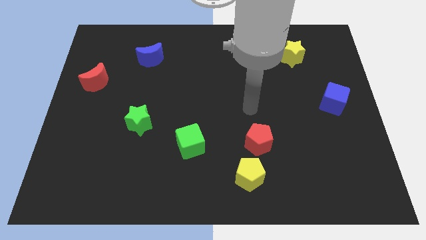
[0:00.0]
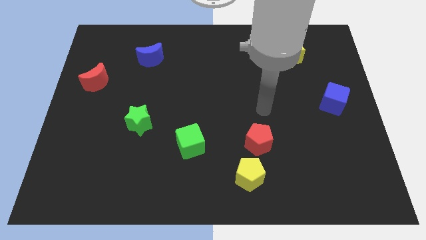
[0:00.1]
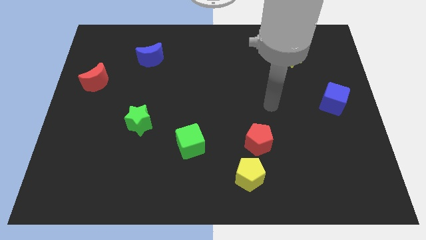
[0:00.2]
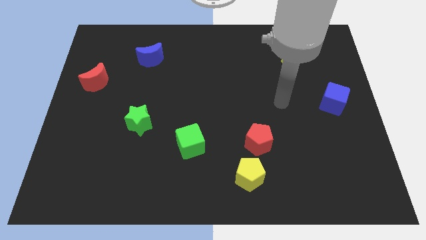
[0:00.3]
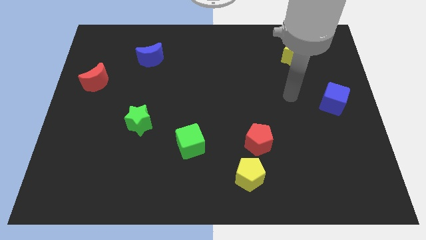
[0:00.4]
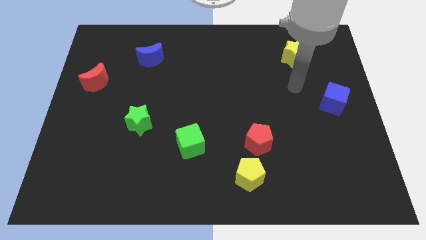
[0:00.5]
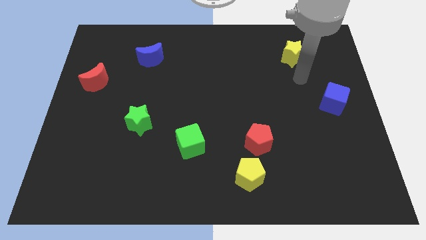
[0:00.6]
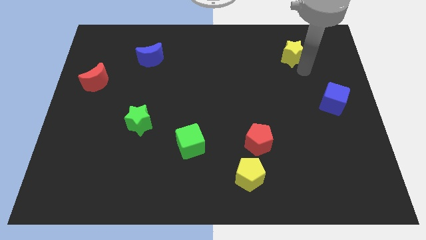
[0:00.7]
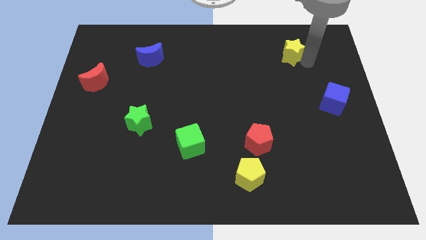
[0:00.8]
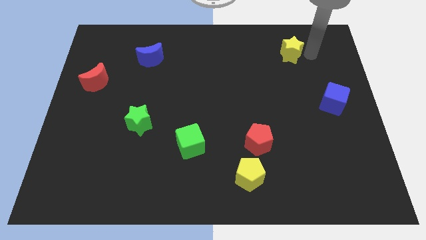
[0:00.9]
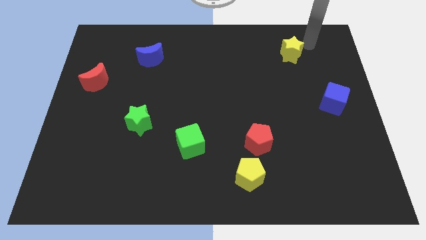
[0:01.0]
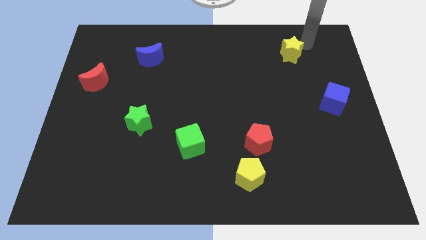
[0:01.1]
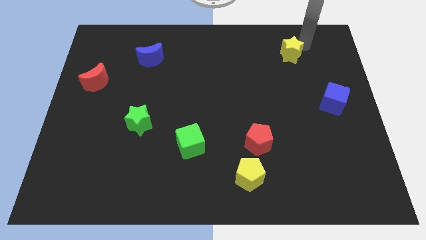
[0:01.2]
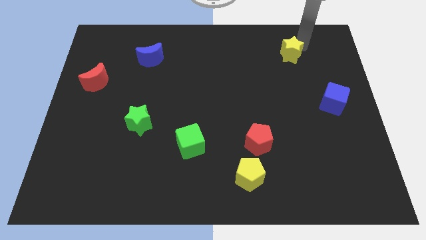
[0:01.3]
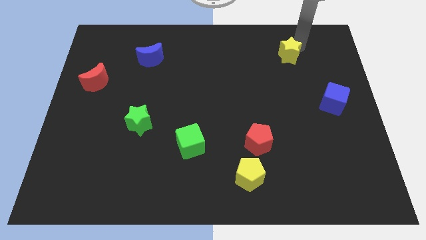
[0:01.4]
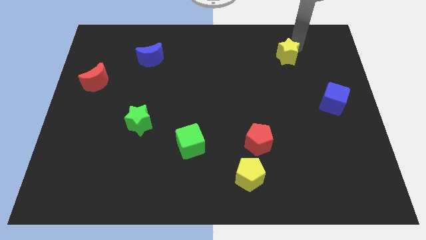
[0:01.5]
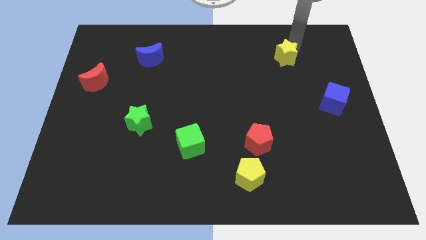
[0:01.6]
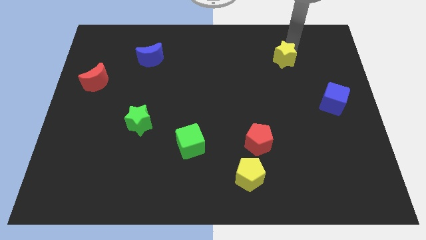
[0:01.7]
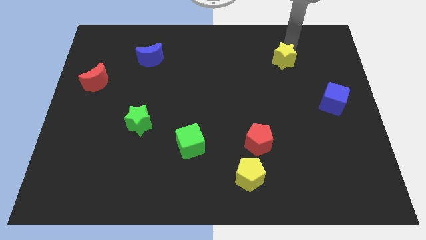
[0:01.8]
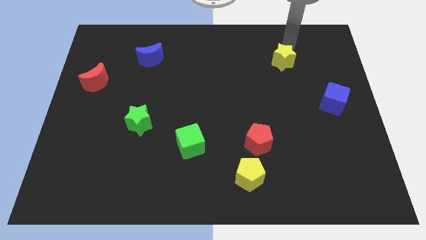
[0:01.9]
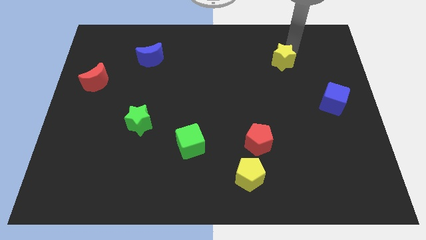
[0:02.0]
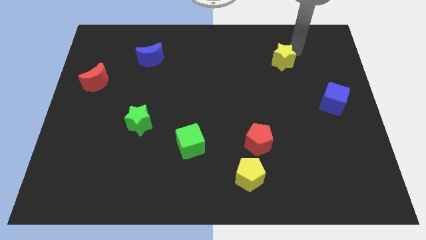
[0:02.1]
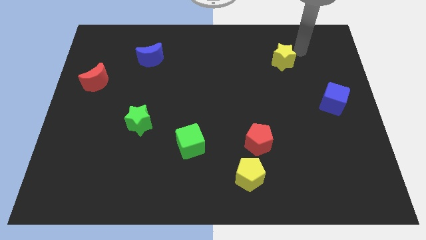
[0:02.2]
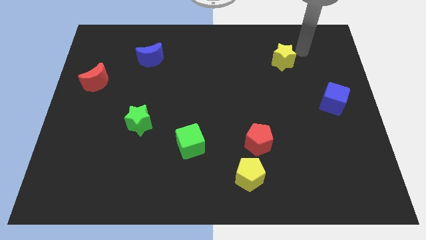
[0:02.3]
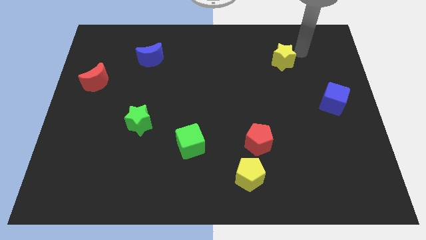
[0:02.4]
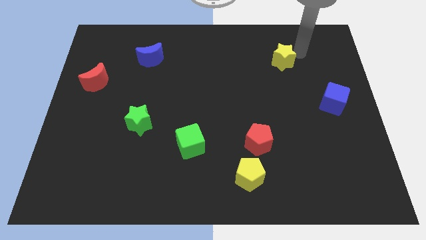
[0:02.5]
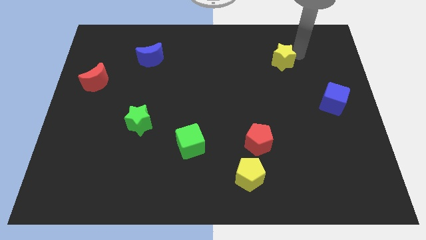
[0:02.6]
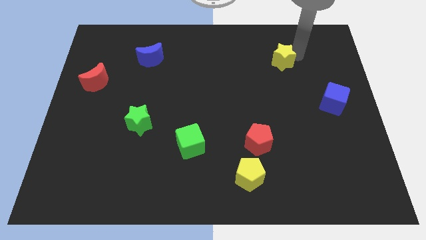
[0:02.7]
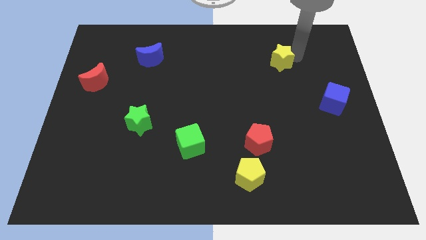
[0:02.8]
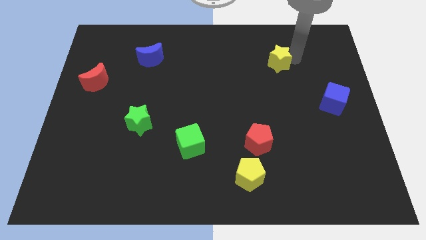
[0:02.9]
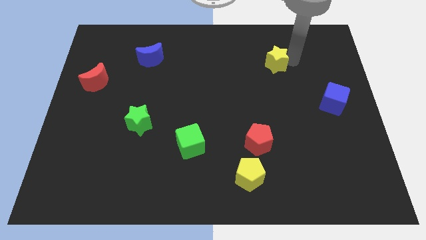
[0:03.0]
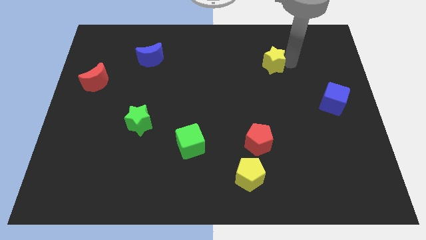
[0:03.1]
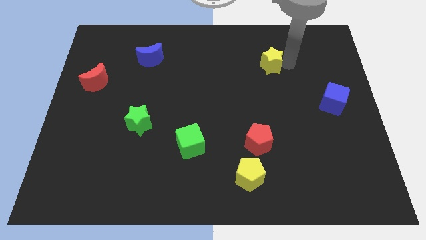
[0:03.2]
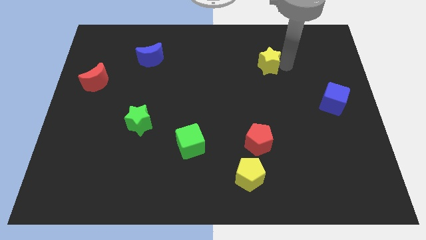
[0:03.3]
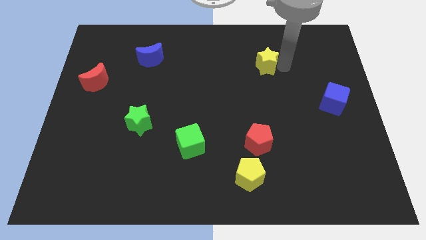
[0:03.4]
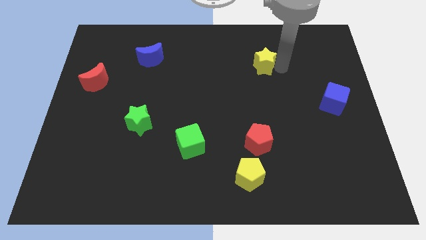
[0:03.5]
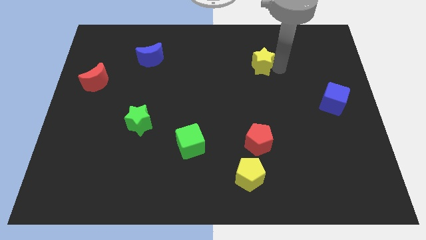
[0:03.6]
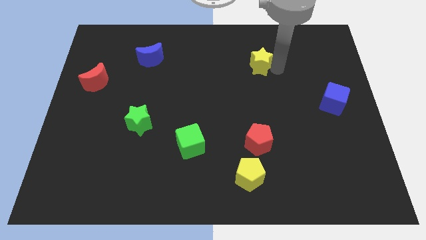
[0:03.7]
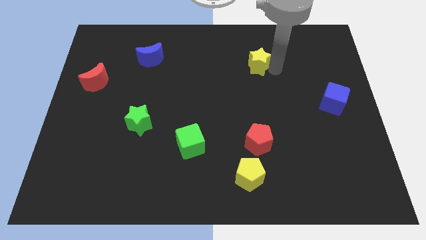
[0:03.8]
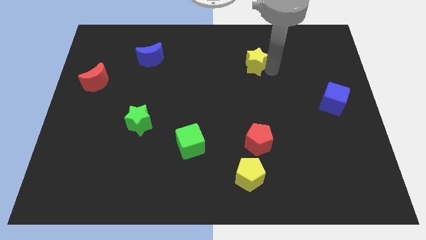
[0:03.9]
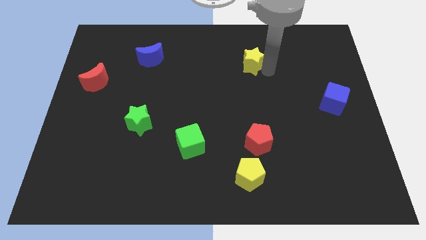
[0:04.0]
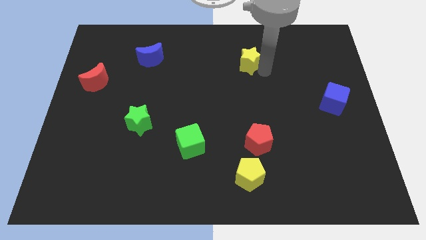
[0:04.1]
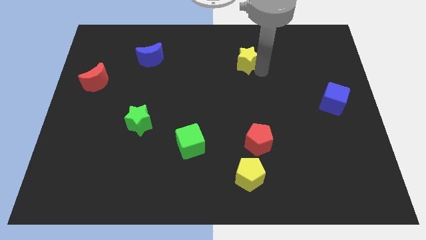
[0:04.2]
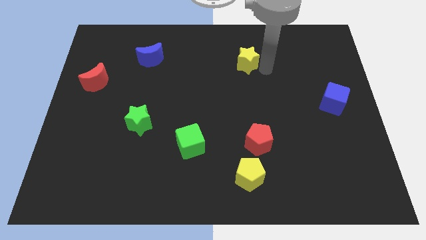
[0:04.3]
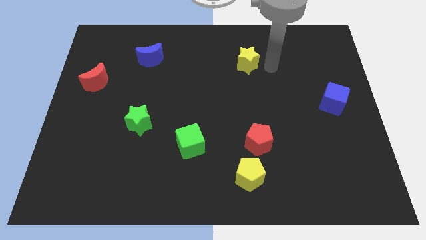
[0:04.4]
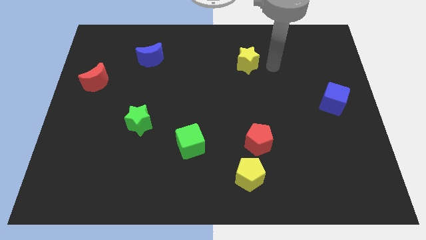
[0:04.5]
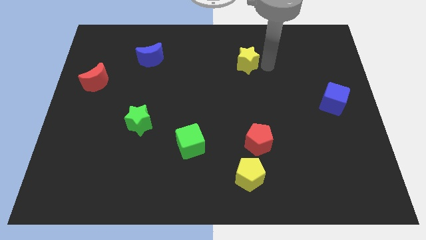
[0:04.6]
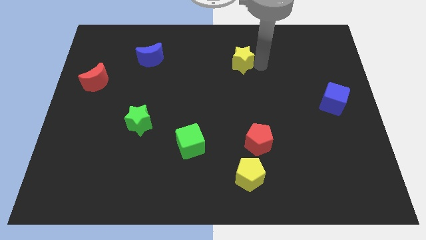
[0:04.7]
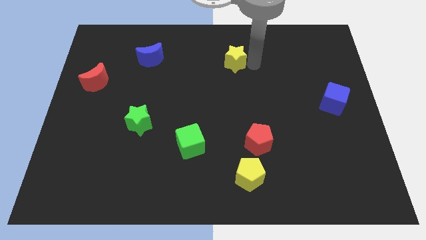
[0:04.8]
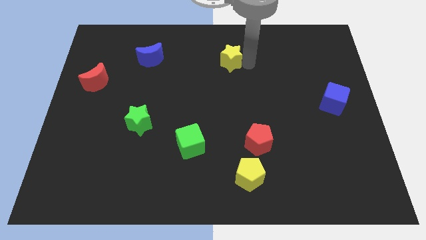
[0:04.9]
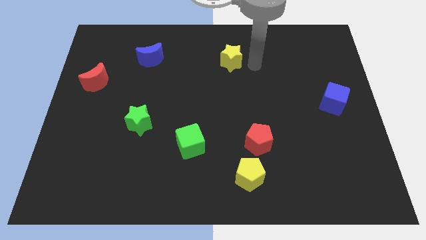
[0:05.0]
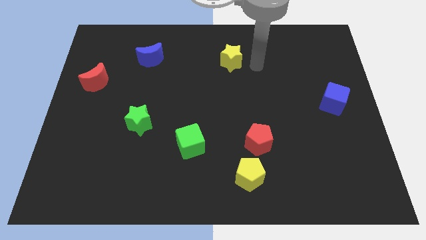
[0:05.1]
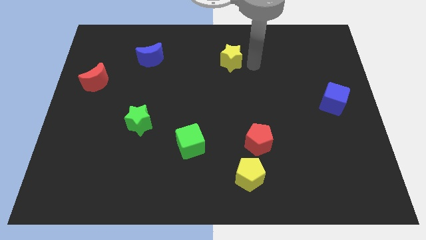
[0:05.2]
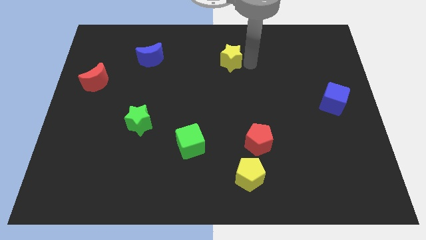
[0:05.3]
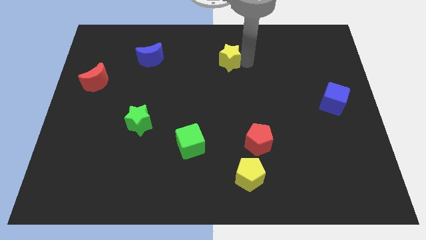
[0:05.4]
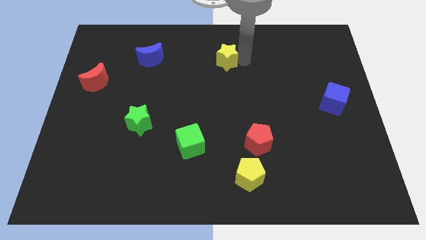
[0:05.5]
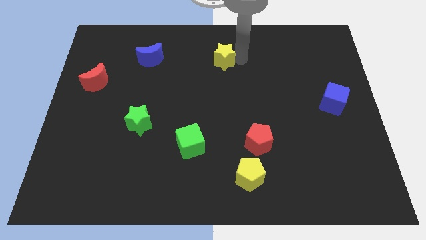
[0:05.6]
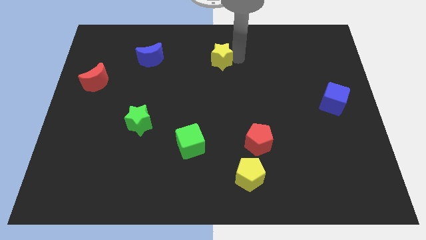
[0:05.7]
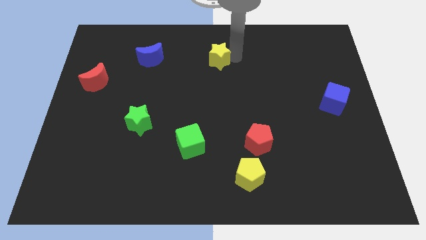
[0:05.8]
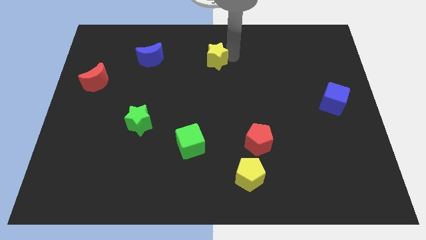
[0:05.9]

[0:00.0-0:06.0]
move the yellow star to the left

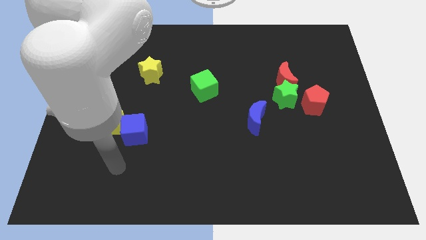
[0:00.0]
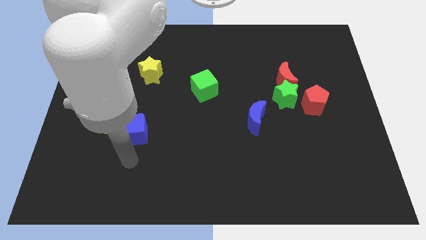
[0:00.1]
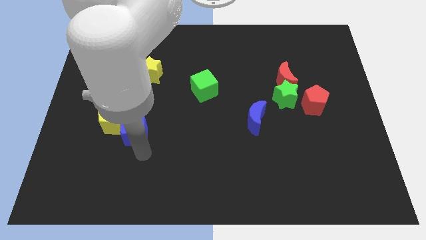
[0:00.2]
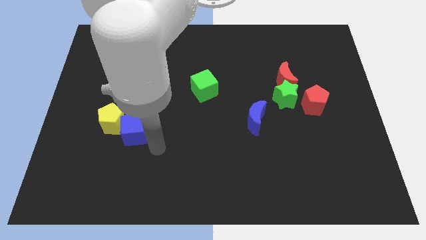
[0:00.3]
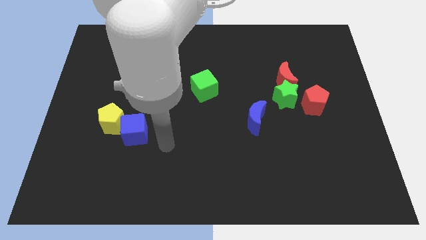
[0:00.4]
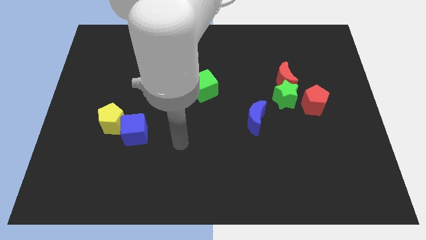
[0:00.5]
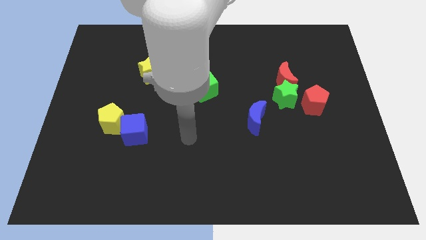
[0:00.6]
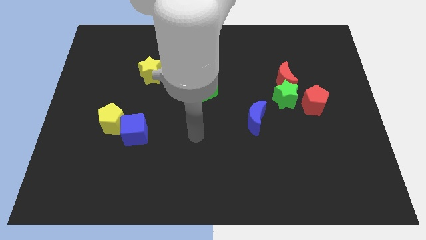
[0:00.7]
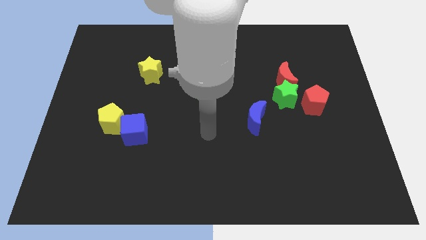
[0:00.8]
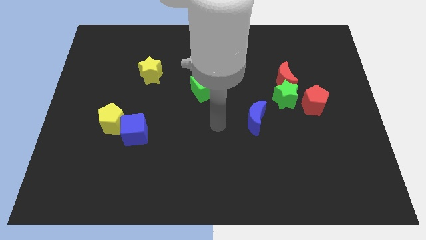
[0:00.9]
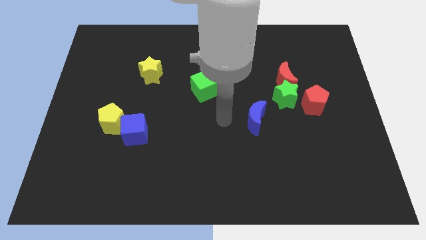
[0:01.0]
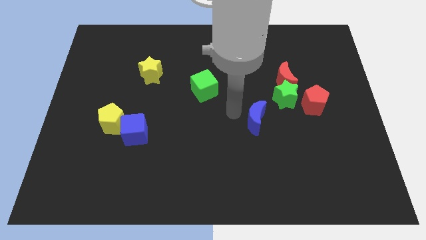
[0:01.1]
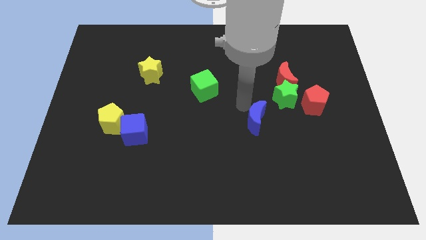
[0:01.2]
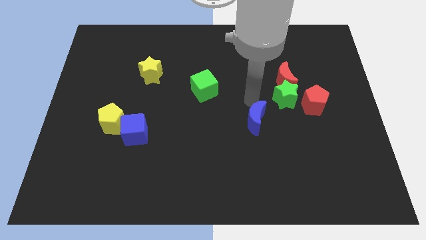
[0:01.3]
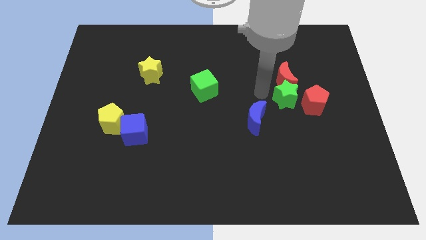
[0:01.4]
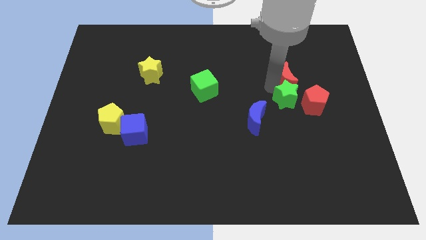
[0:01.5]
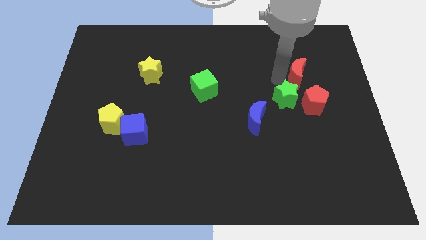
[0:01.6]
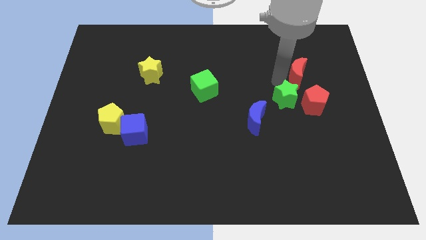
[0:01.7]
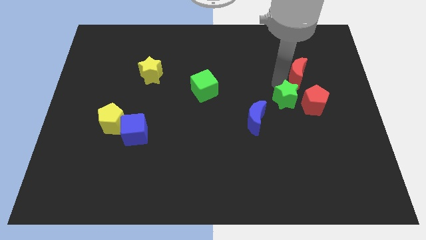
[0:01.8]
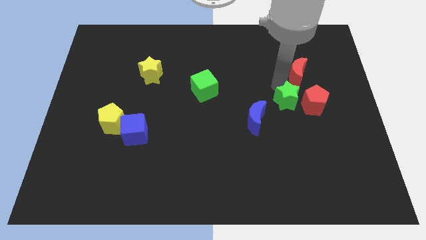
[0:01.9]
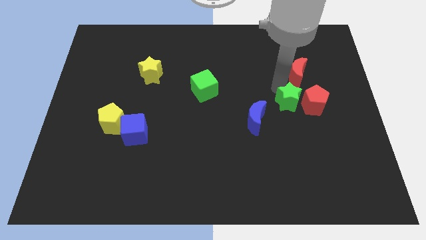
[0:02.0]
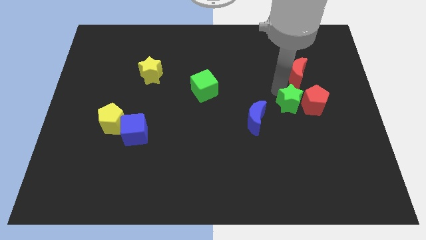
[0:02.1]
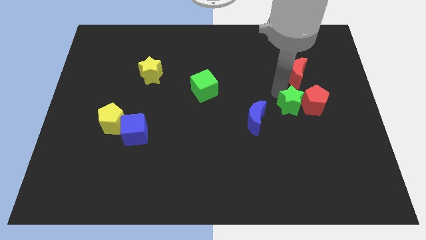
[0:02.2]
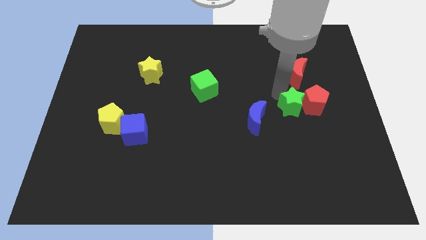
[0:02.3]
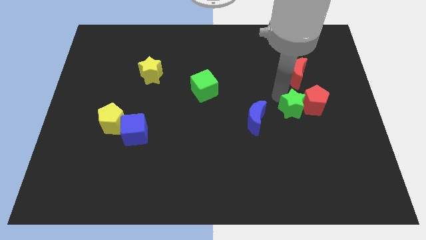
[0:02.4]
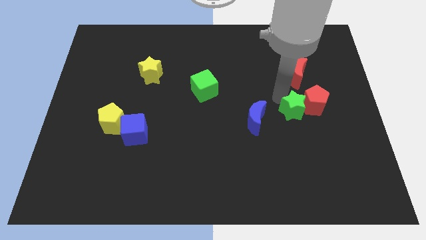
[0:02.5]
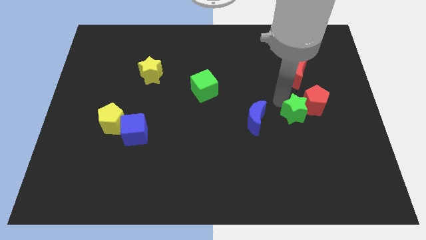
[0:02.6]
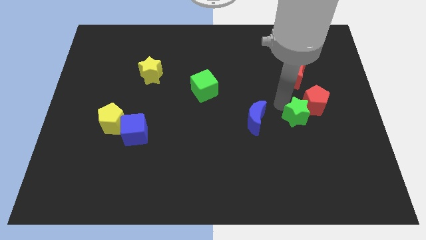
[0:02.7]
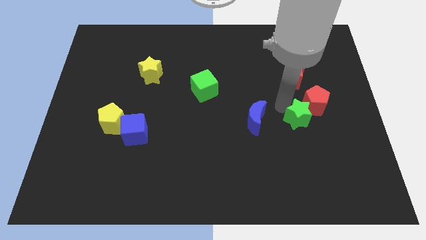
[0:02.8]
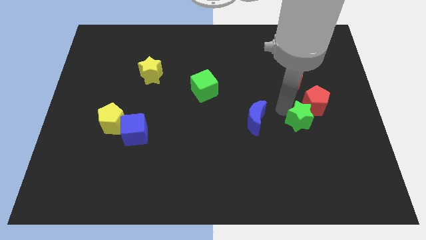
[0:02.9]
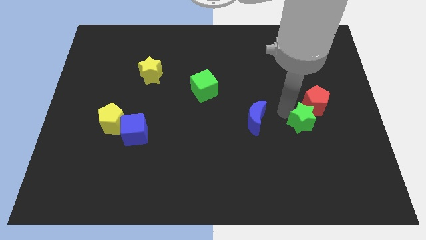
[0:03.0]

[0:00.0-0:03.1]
slightly slide the green star downwards
